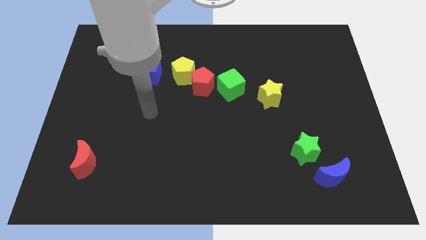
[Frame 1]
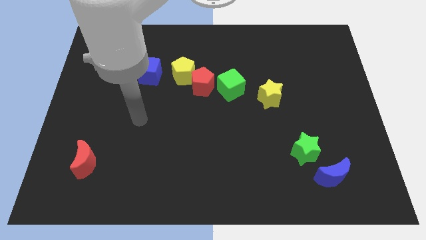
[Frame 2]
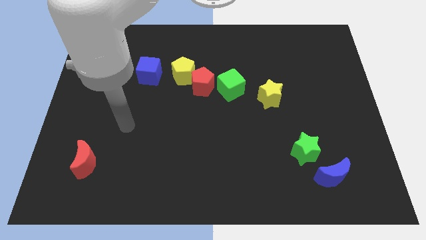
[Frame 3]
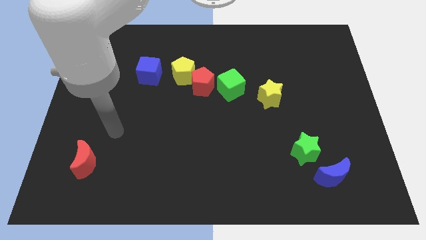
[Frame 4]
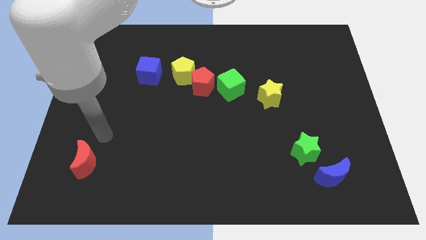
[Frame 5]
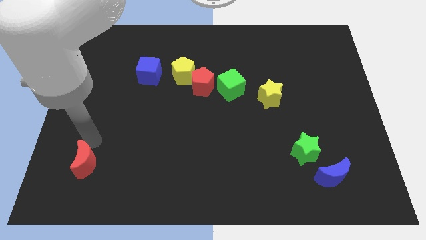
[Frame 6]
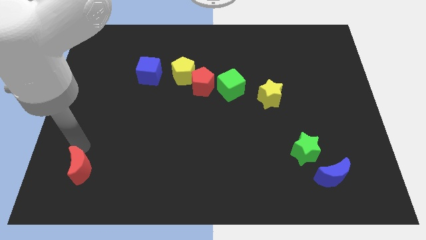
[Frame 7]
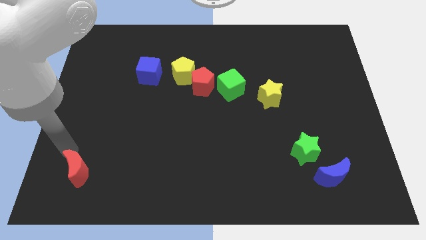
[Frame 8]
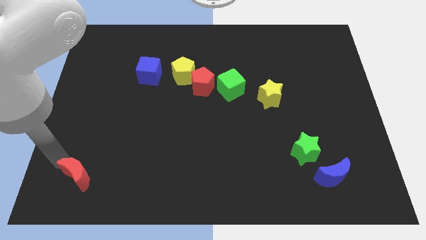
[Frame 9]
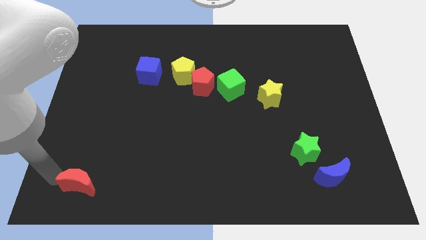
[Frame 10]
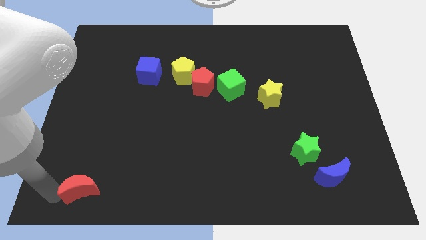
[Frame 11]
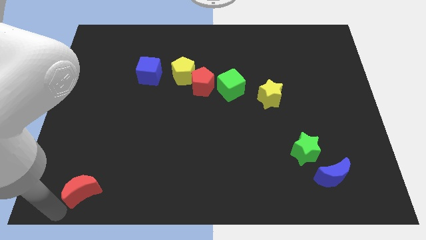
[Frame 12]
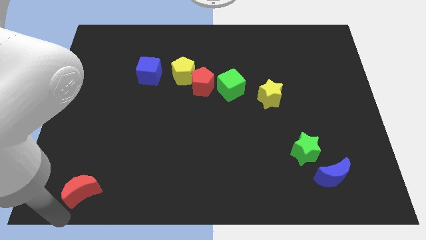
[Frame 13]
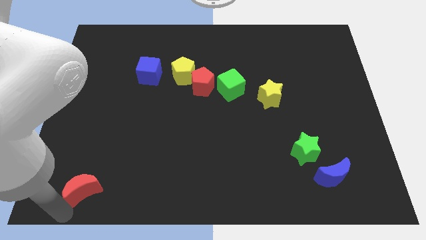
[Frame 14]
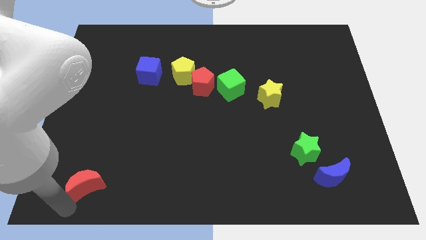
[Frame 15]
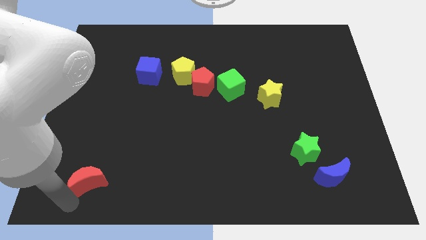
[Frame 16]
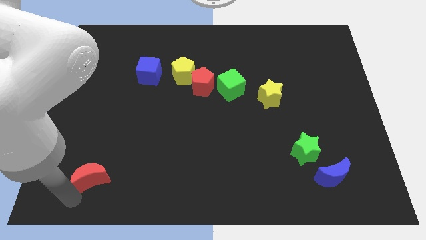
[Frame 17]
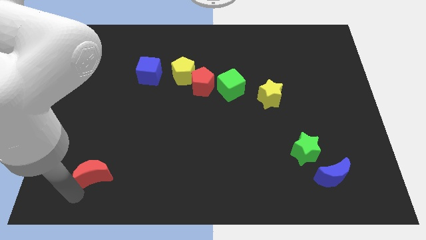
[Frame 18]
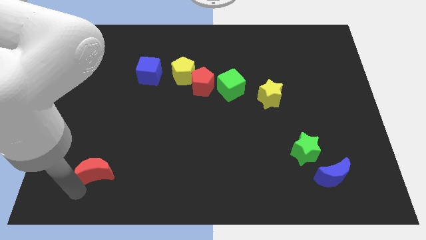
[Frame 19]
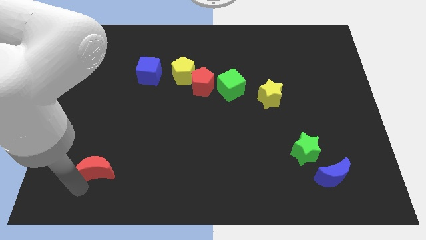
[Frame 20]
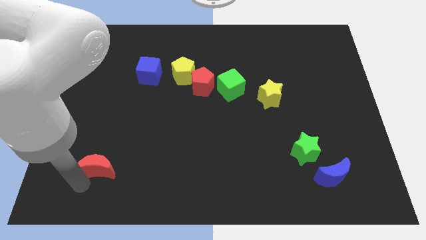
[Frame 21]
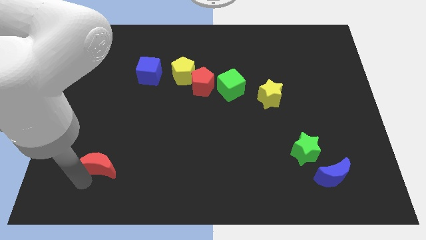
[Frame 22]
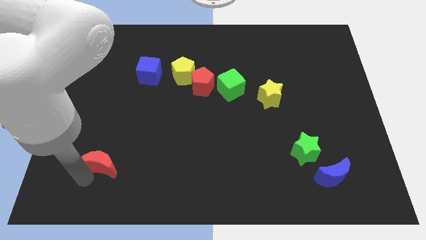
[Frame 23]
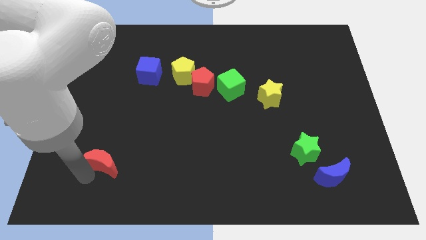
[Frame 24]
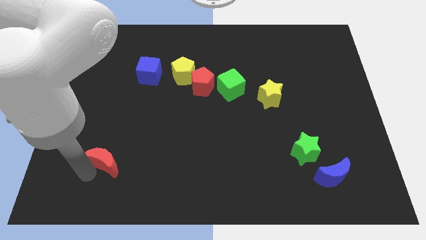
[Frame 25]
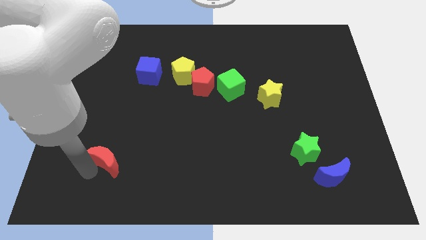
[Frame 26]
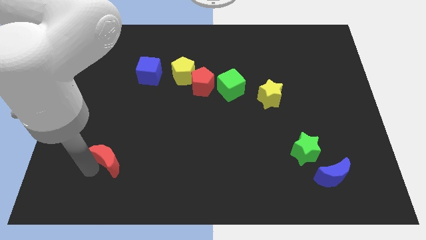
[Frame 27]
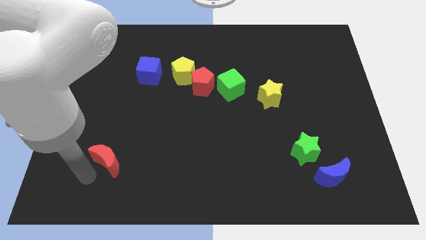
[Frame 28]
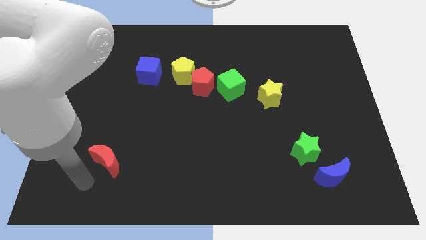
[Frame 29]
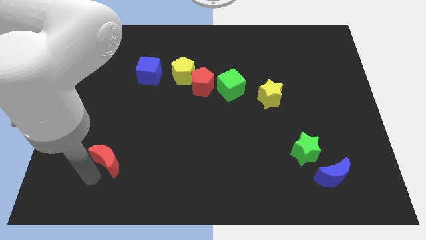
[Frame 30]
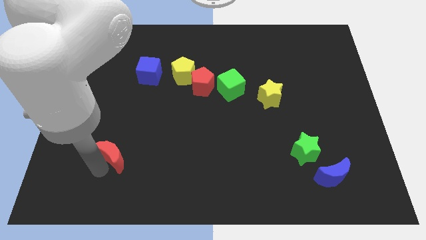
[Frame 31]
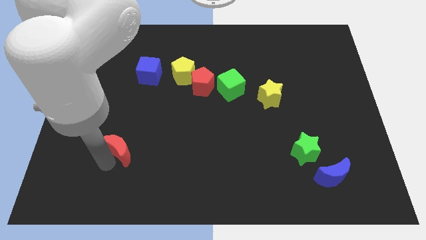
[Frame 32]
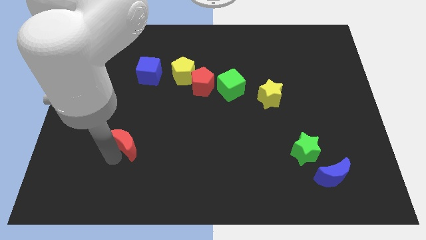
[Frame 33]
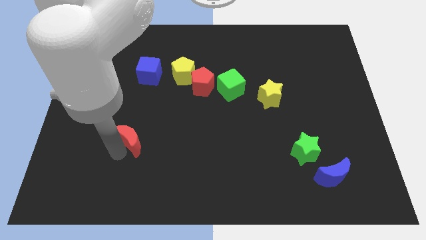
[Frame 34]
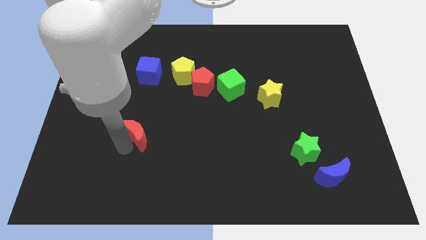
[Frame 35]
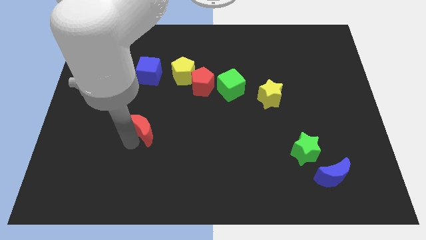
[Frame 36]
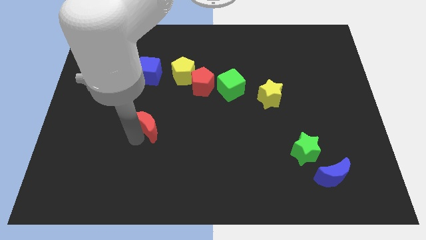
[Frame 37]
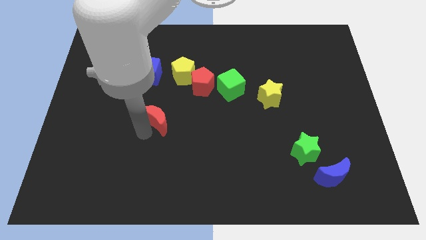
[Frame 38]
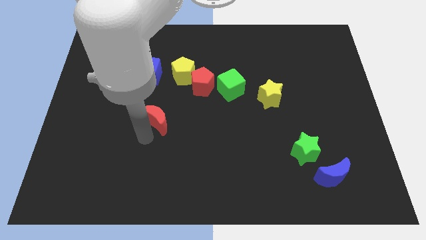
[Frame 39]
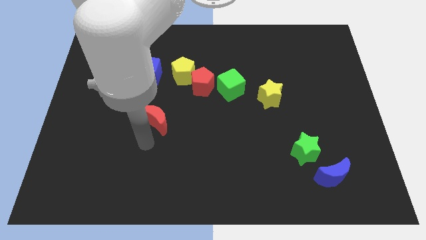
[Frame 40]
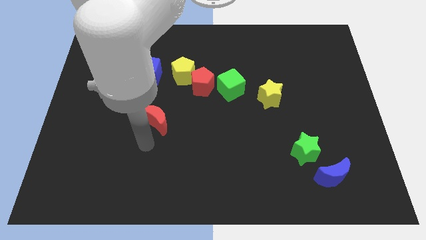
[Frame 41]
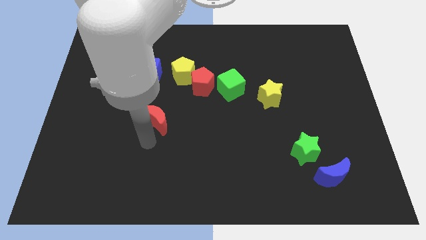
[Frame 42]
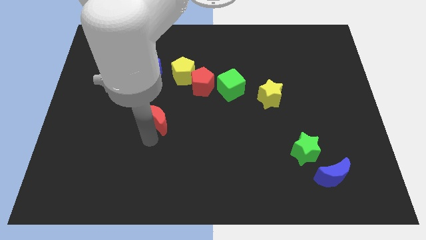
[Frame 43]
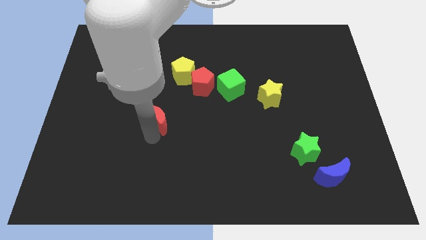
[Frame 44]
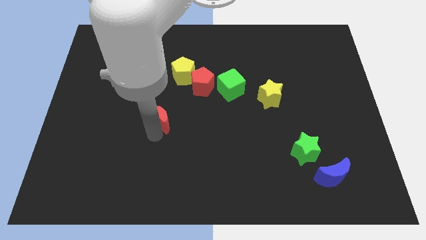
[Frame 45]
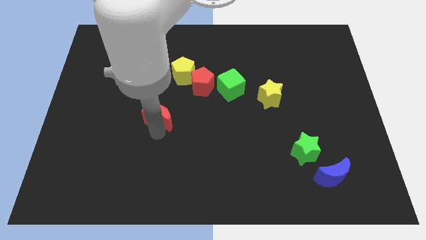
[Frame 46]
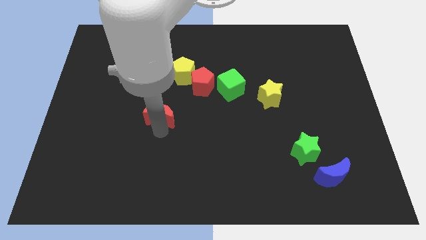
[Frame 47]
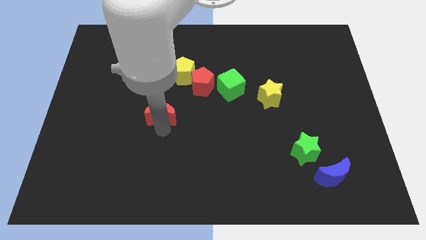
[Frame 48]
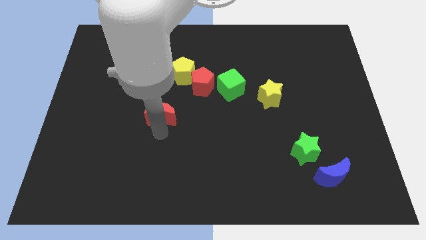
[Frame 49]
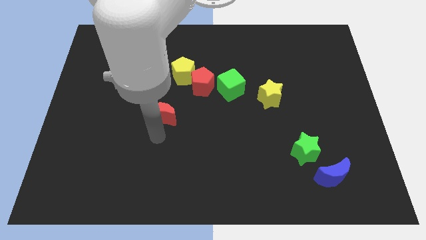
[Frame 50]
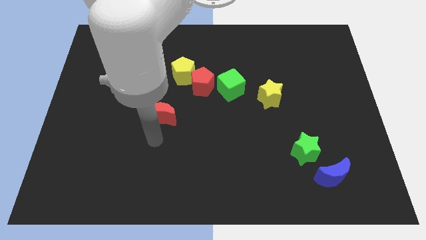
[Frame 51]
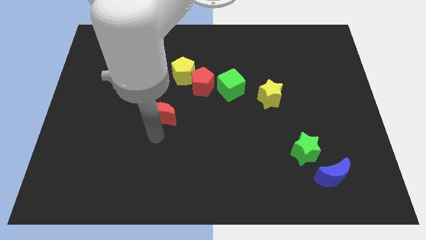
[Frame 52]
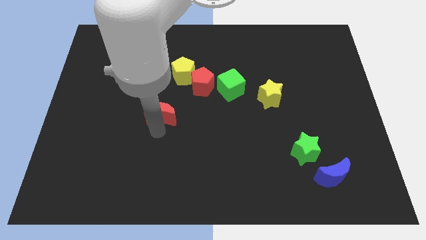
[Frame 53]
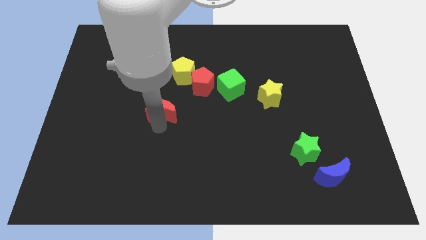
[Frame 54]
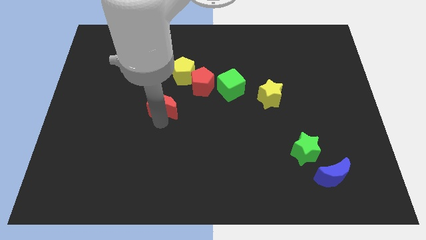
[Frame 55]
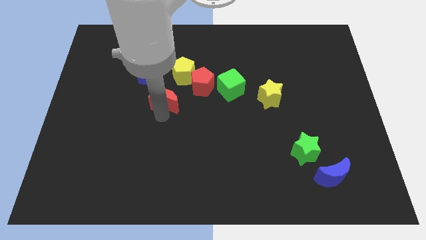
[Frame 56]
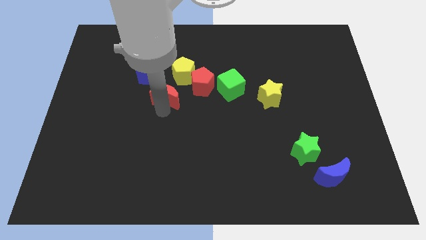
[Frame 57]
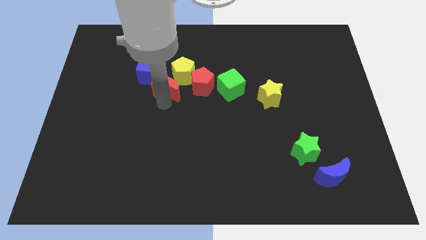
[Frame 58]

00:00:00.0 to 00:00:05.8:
move the red moon next to the yellow pentagon

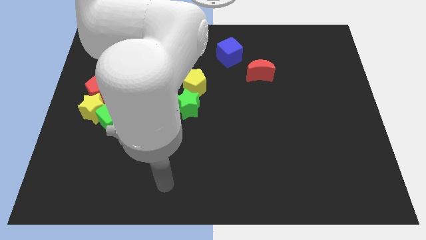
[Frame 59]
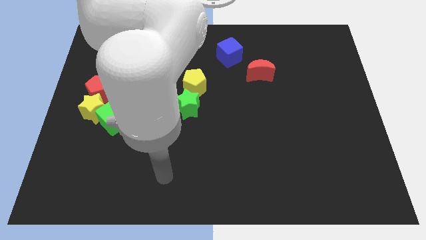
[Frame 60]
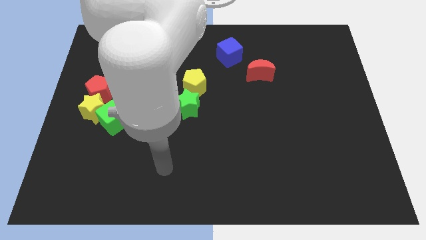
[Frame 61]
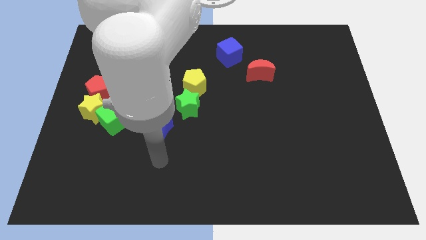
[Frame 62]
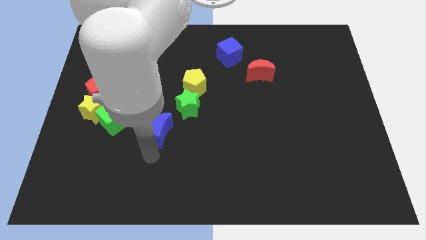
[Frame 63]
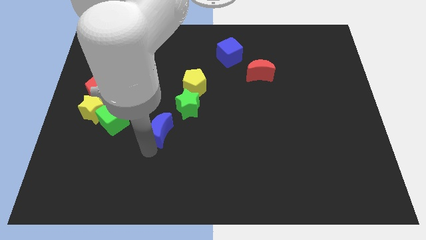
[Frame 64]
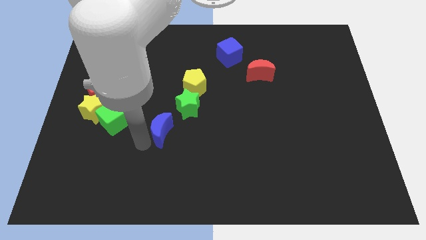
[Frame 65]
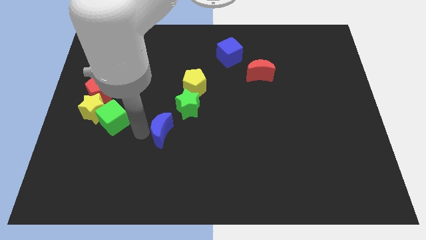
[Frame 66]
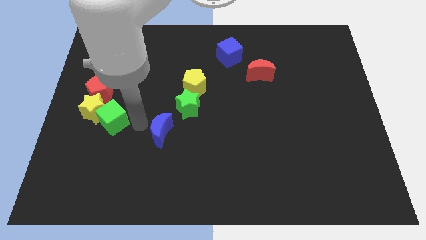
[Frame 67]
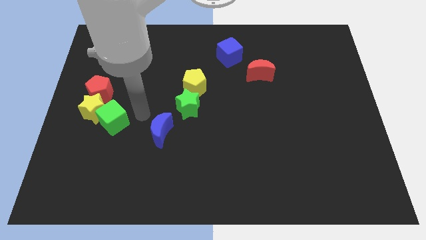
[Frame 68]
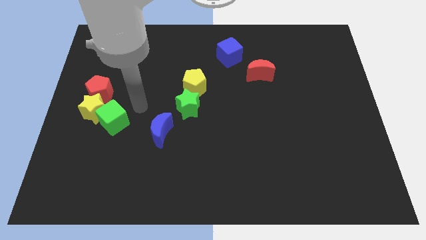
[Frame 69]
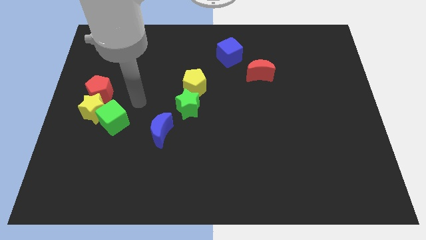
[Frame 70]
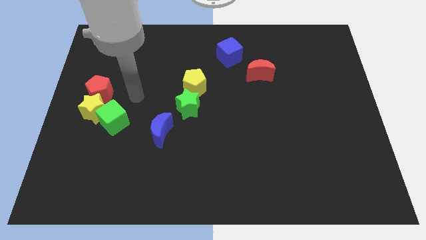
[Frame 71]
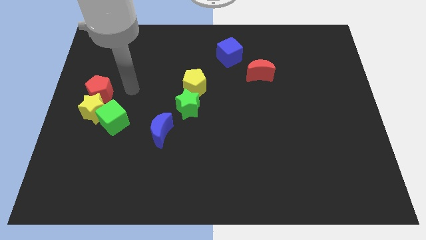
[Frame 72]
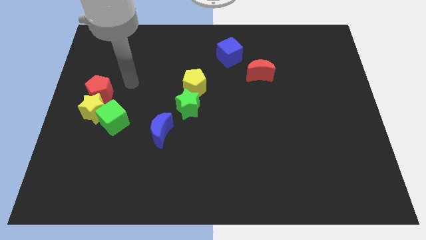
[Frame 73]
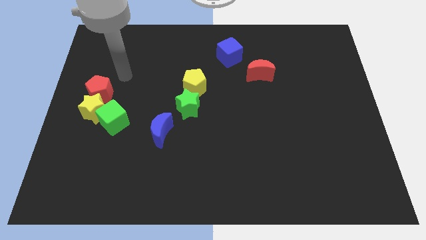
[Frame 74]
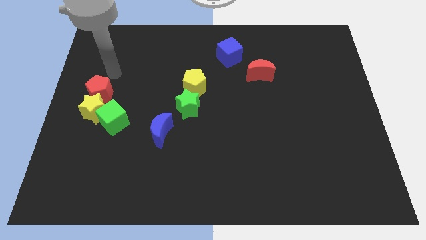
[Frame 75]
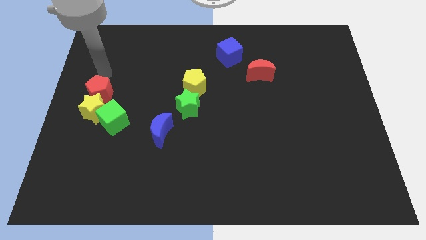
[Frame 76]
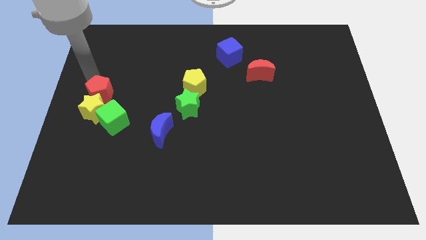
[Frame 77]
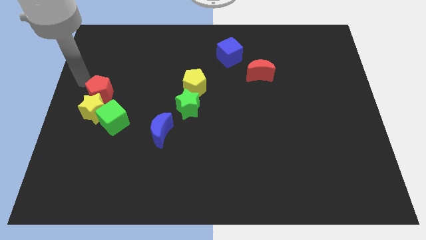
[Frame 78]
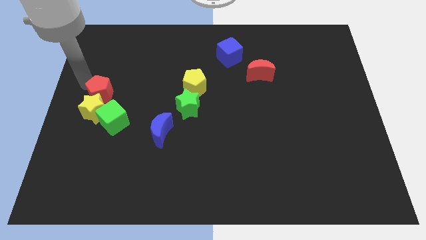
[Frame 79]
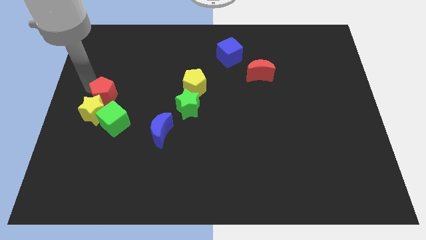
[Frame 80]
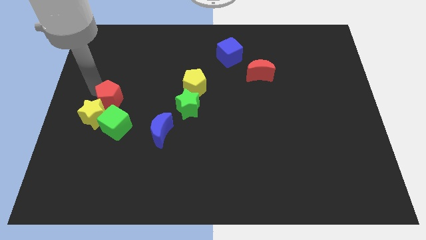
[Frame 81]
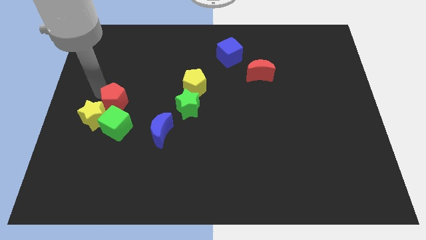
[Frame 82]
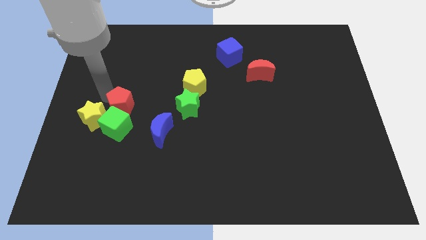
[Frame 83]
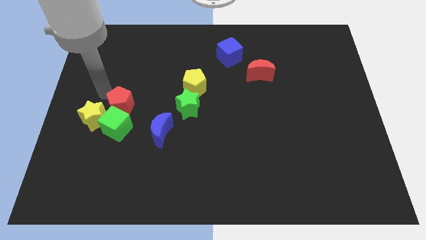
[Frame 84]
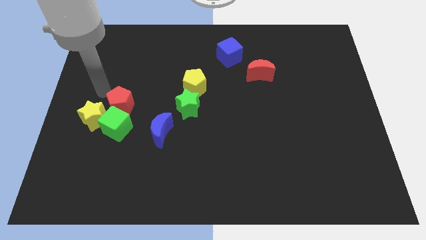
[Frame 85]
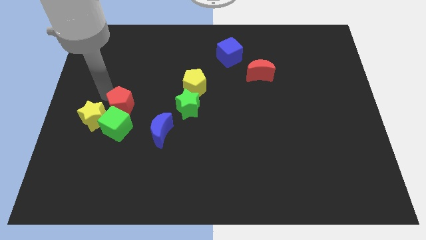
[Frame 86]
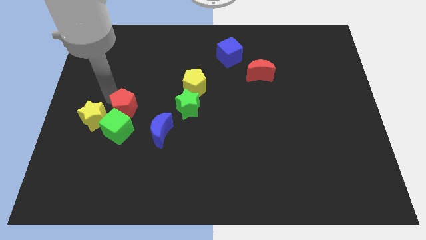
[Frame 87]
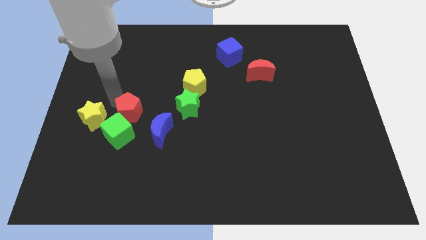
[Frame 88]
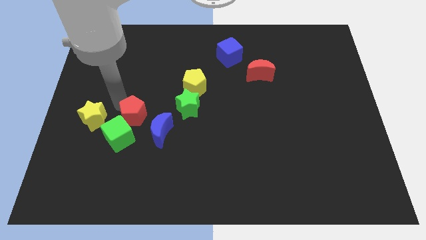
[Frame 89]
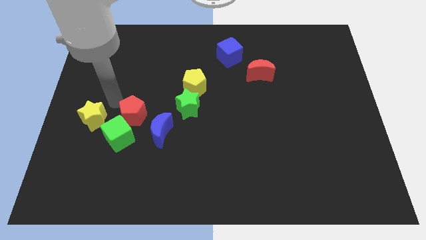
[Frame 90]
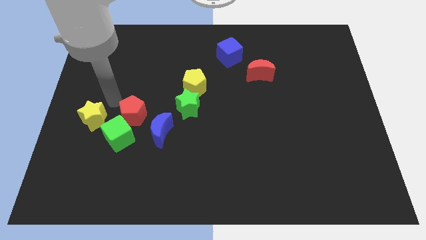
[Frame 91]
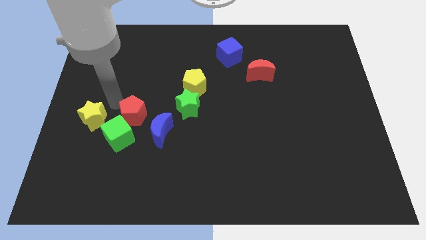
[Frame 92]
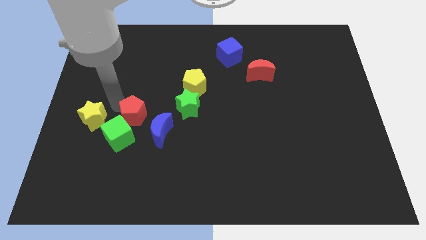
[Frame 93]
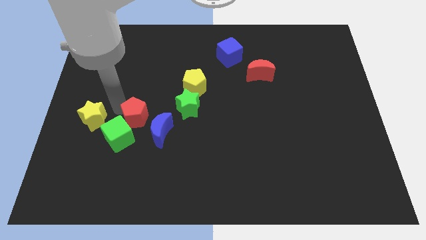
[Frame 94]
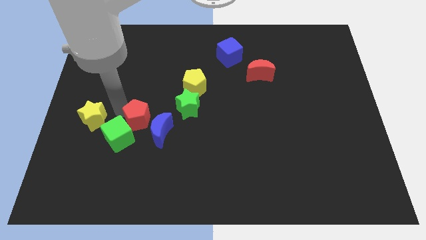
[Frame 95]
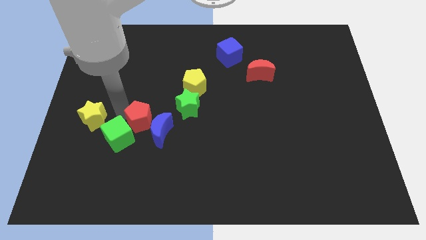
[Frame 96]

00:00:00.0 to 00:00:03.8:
put the red pentagon towards the blue moon
